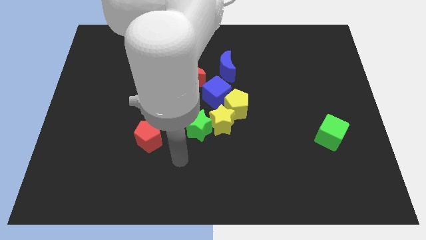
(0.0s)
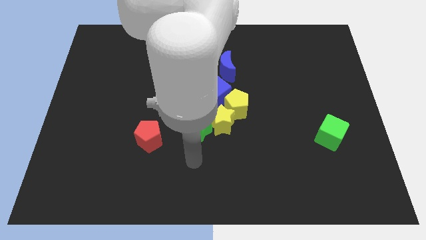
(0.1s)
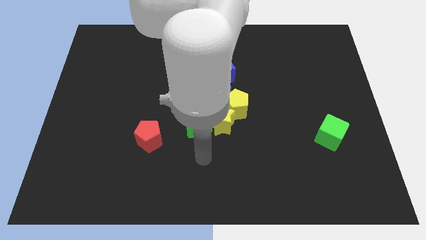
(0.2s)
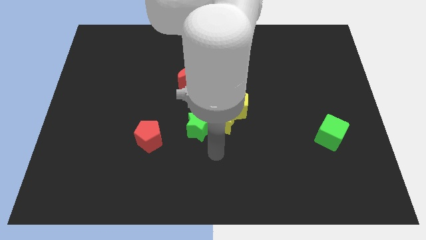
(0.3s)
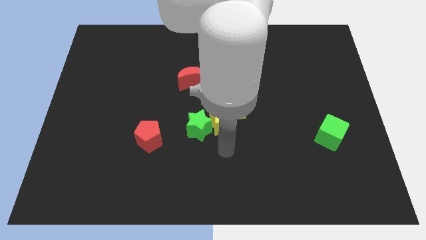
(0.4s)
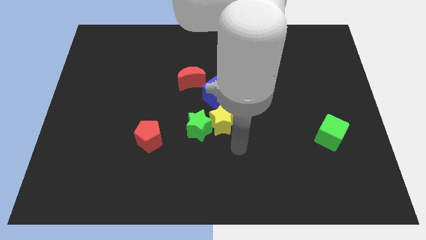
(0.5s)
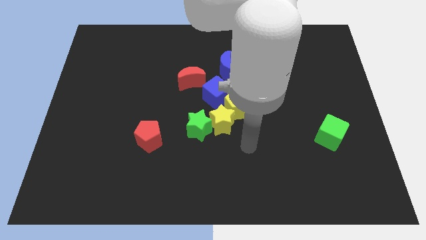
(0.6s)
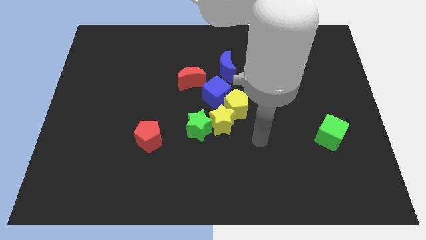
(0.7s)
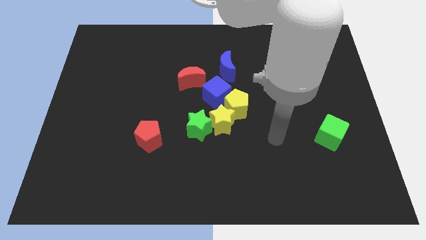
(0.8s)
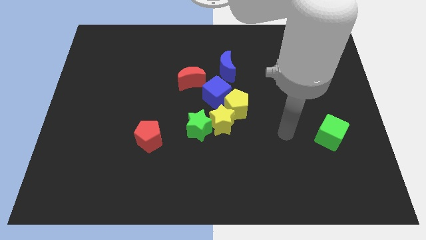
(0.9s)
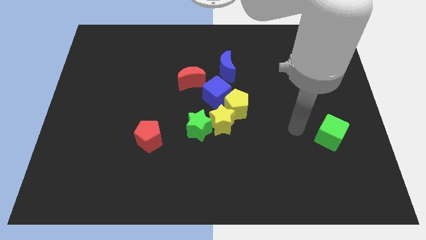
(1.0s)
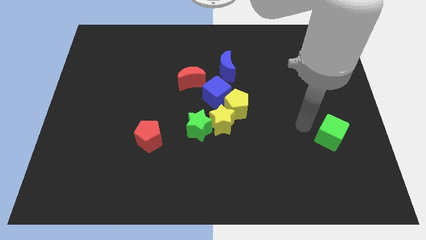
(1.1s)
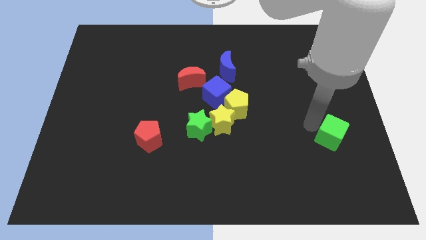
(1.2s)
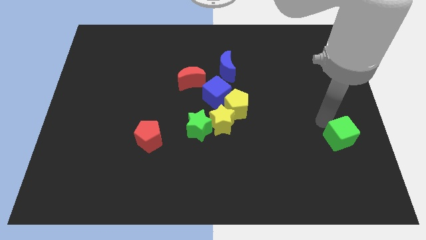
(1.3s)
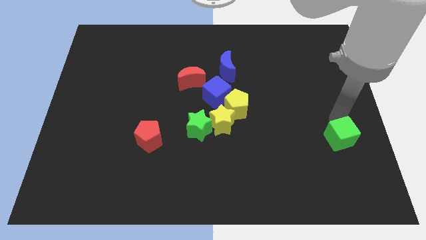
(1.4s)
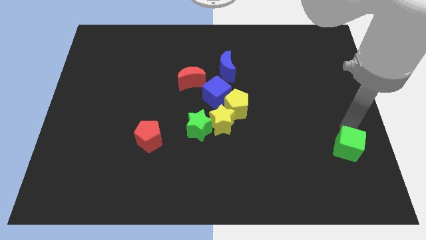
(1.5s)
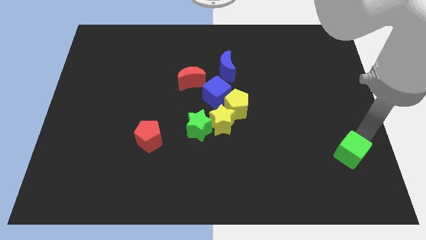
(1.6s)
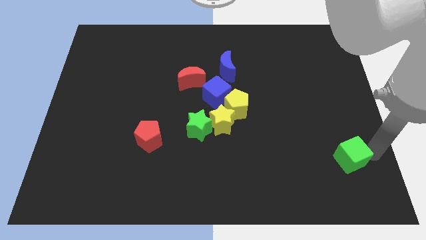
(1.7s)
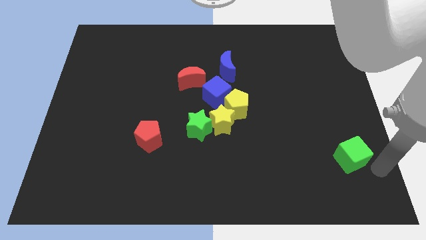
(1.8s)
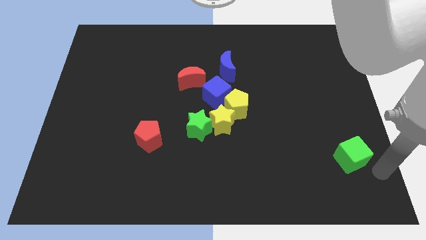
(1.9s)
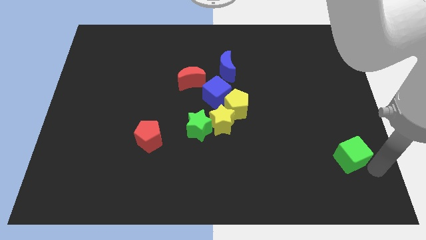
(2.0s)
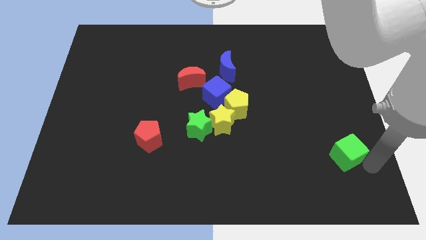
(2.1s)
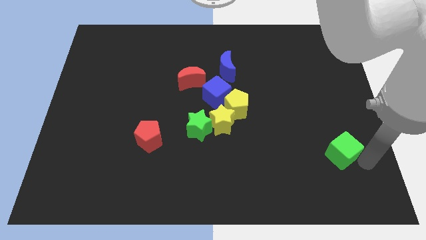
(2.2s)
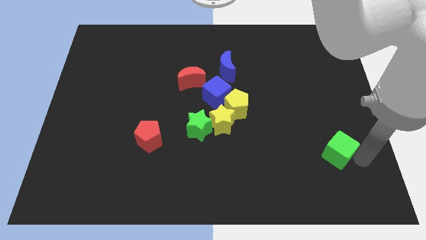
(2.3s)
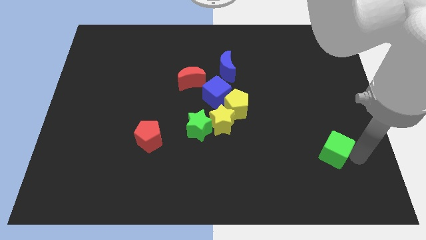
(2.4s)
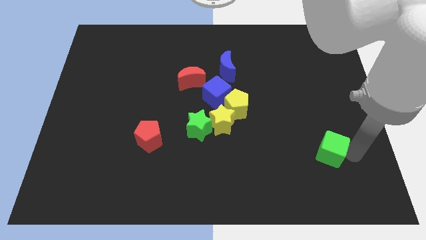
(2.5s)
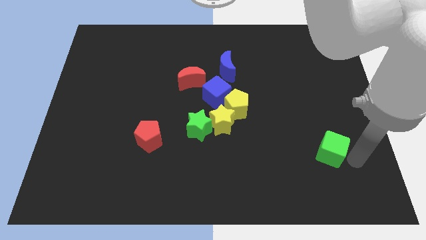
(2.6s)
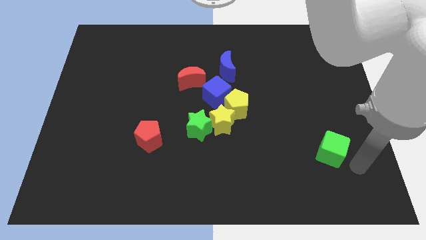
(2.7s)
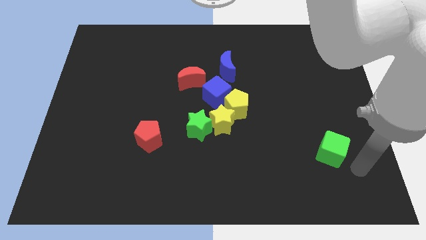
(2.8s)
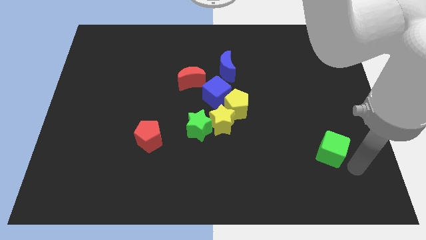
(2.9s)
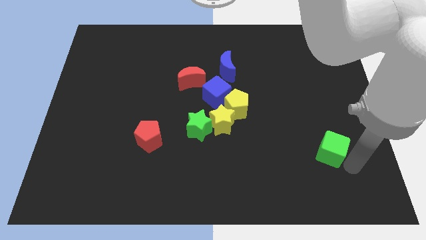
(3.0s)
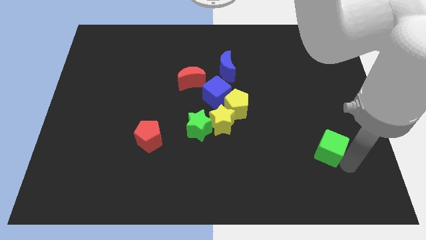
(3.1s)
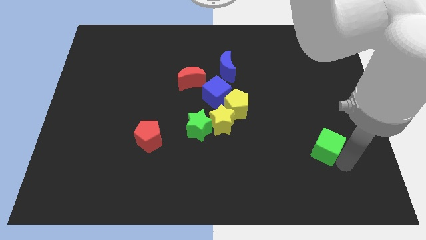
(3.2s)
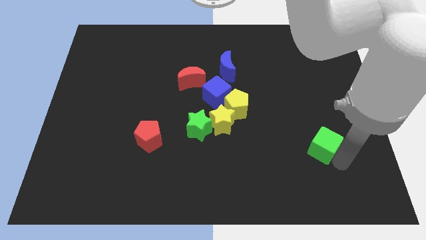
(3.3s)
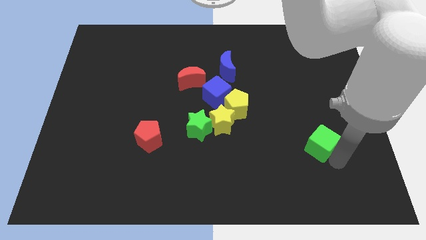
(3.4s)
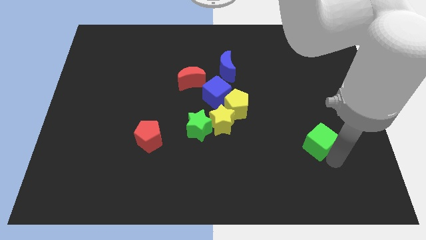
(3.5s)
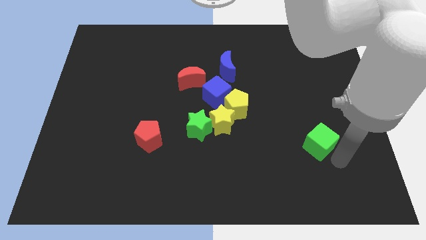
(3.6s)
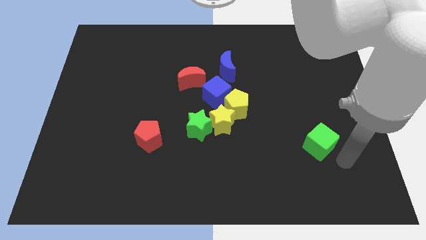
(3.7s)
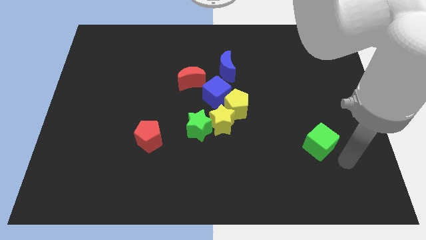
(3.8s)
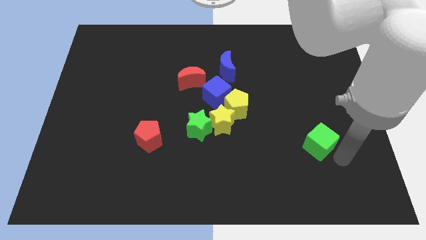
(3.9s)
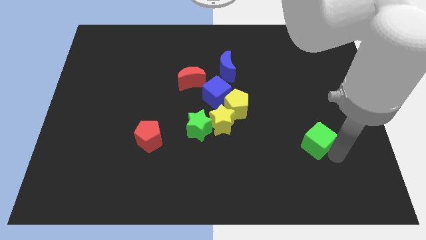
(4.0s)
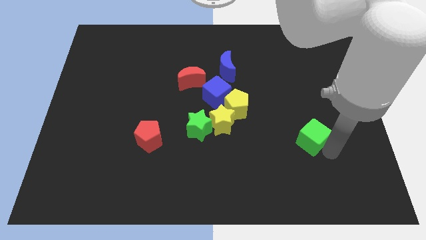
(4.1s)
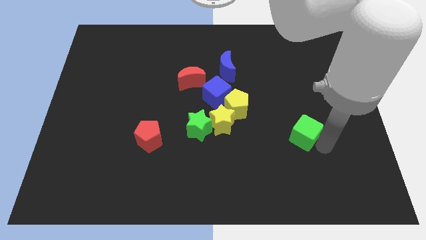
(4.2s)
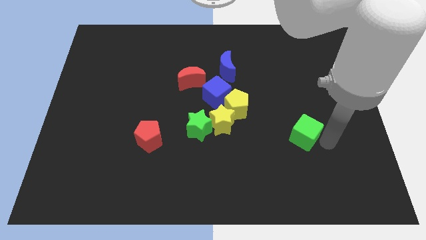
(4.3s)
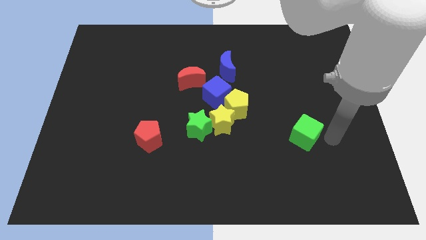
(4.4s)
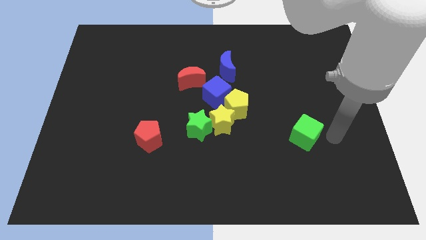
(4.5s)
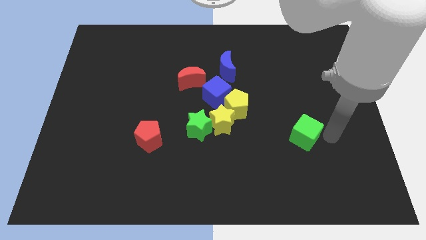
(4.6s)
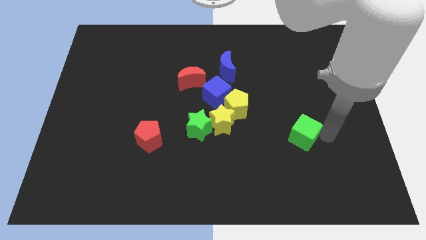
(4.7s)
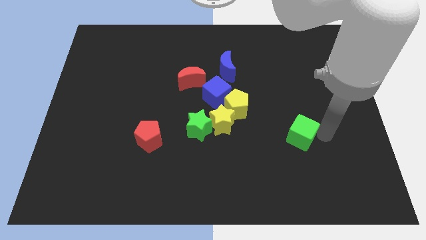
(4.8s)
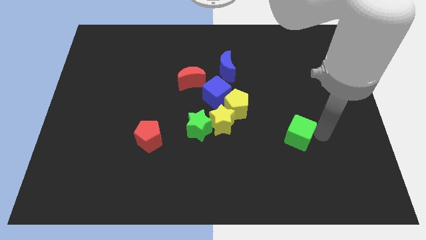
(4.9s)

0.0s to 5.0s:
move the green cube to the left somewhat

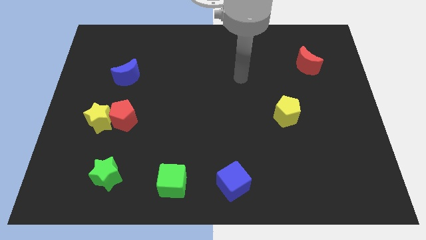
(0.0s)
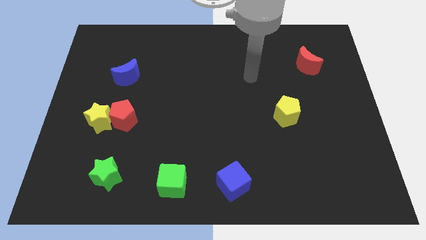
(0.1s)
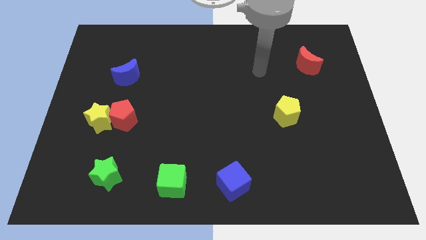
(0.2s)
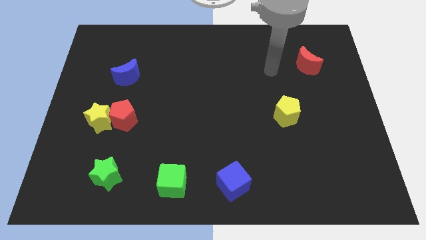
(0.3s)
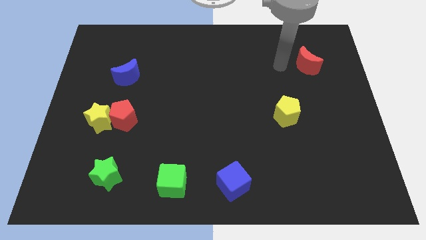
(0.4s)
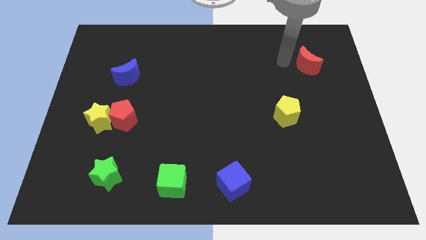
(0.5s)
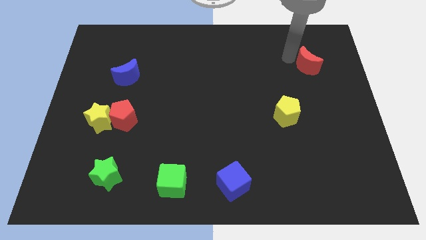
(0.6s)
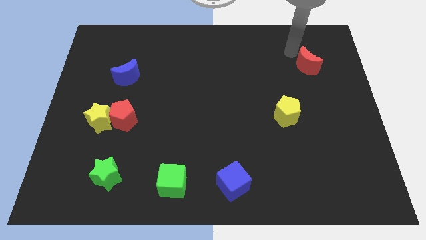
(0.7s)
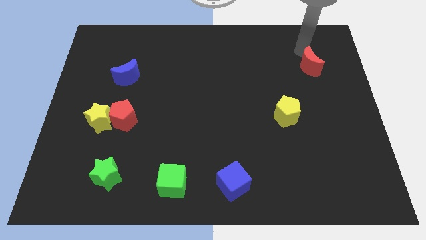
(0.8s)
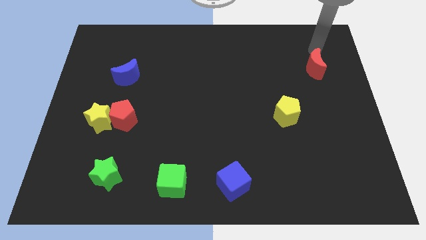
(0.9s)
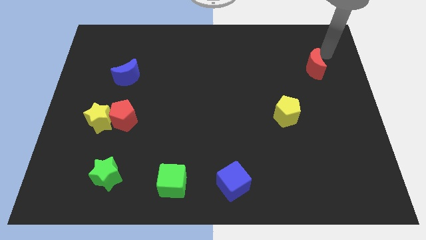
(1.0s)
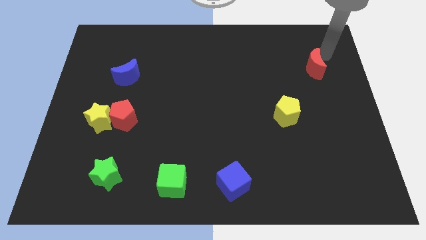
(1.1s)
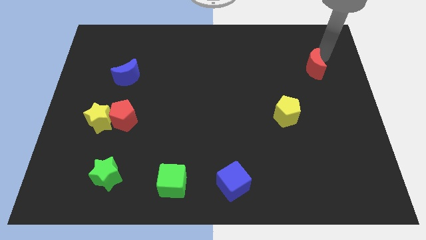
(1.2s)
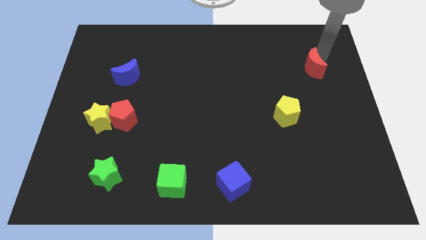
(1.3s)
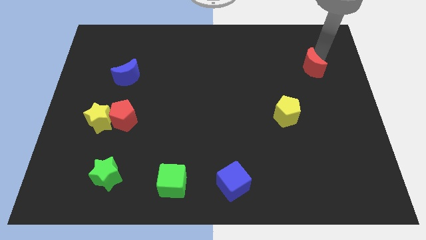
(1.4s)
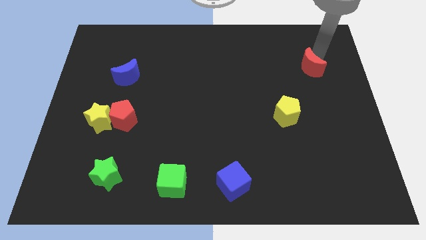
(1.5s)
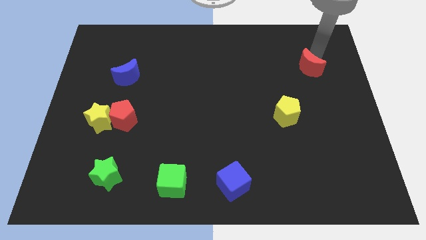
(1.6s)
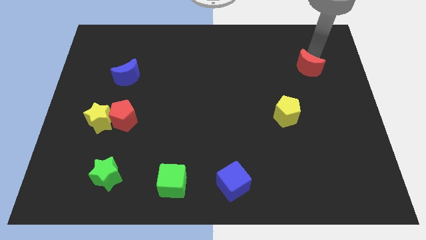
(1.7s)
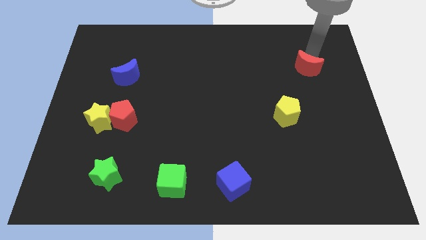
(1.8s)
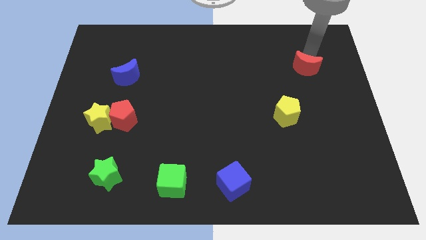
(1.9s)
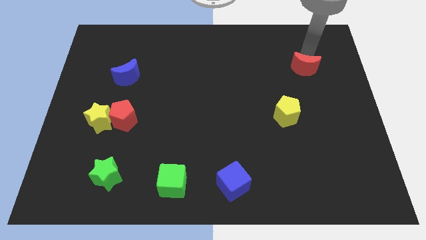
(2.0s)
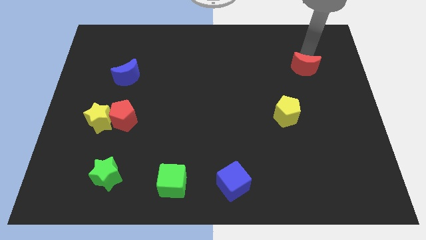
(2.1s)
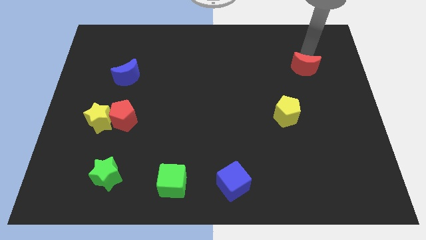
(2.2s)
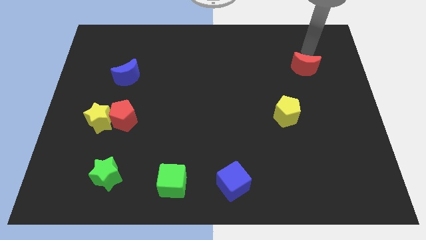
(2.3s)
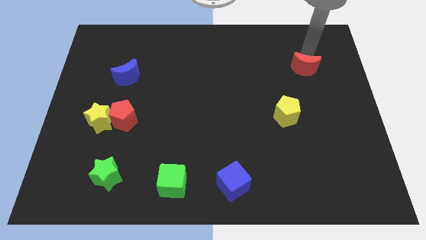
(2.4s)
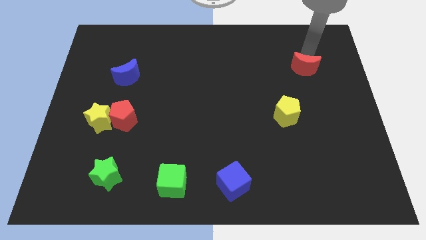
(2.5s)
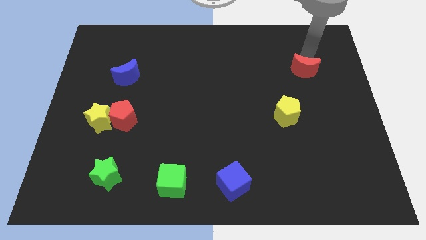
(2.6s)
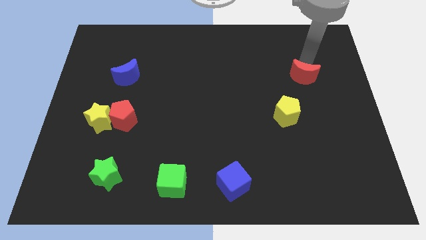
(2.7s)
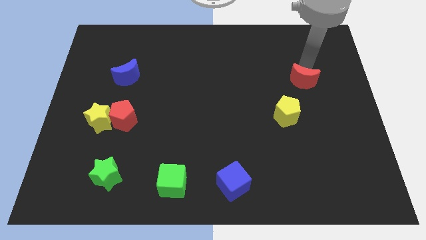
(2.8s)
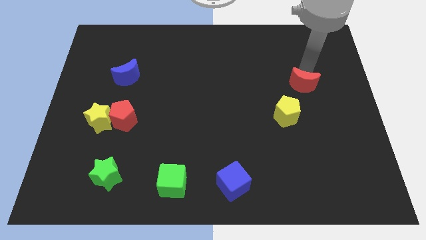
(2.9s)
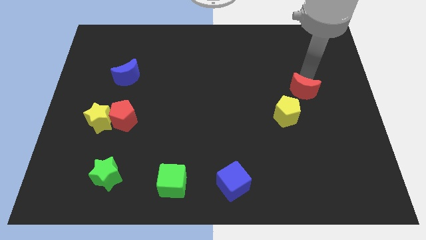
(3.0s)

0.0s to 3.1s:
slide the red moon down and to the left somewhat

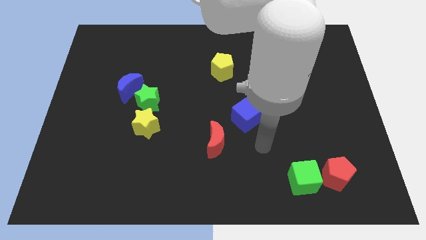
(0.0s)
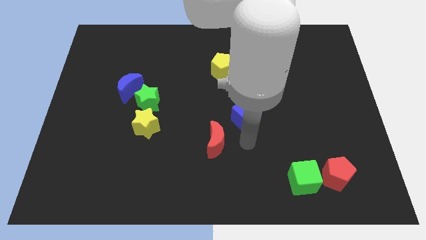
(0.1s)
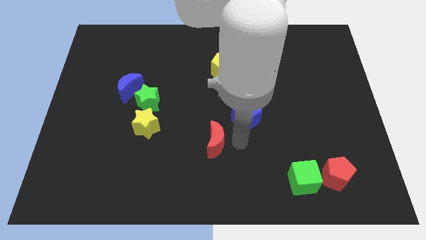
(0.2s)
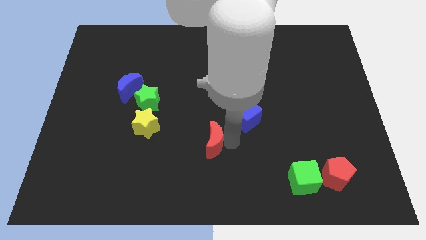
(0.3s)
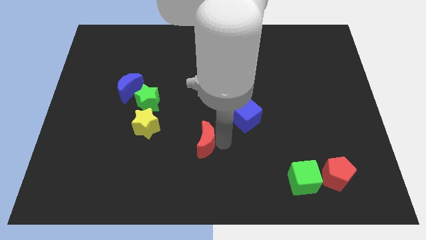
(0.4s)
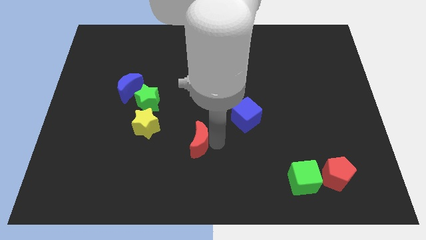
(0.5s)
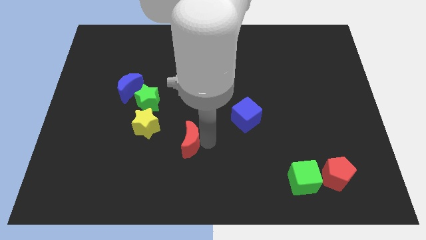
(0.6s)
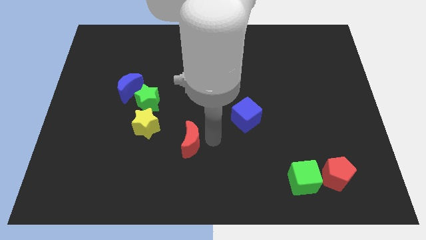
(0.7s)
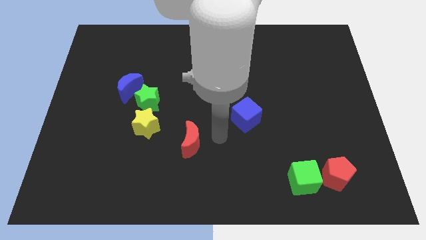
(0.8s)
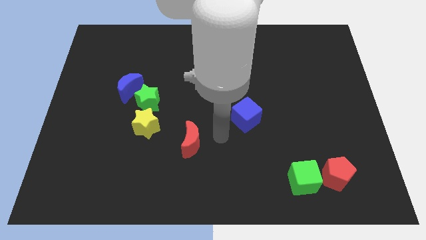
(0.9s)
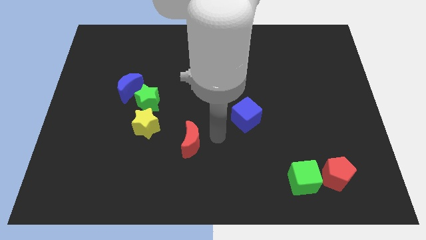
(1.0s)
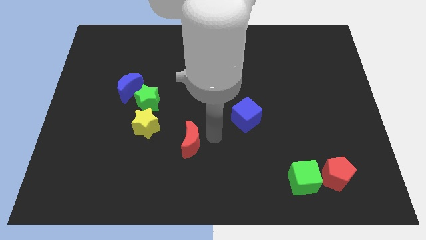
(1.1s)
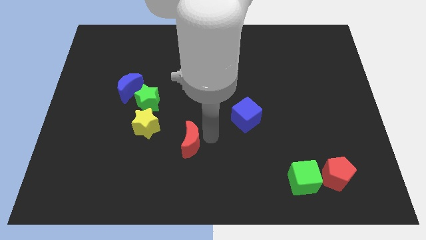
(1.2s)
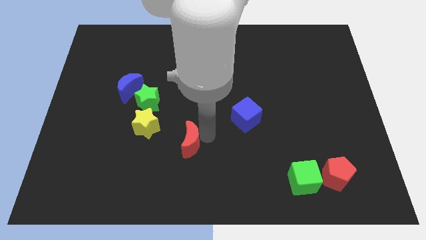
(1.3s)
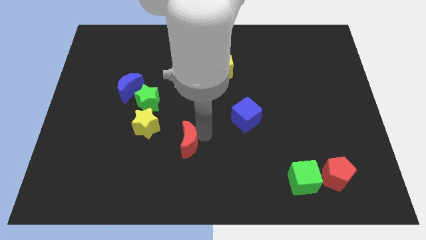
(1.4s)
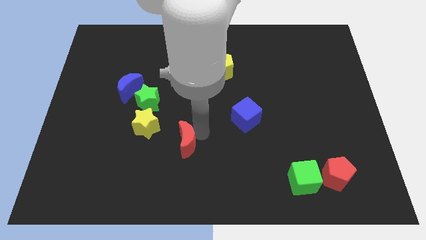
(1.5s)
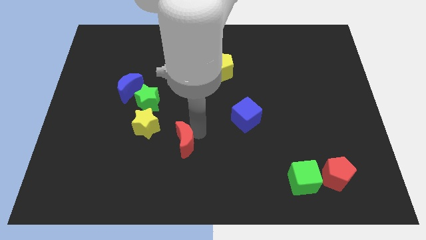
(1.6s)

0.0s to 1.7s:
move the red moon to the left a little
